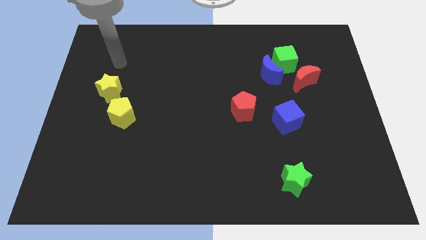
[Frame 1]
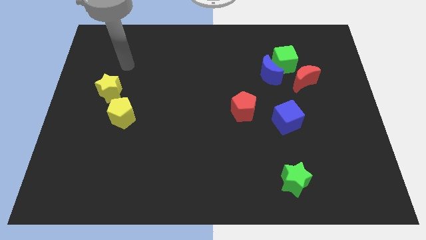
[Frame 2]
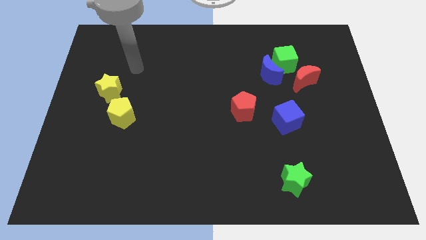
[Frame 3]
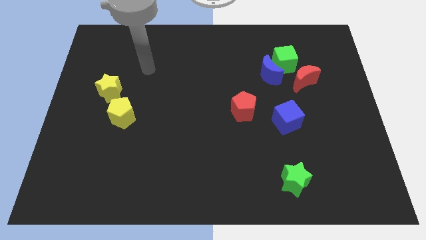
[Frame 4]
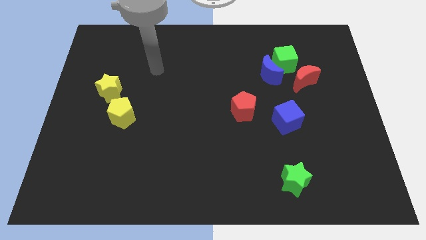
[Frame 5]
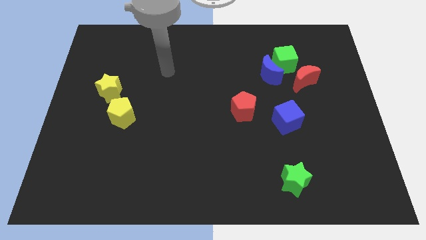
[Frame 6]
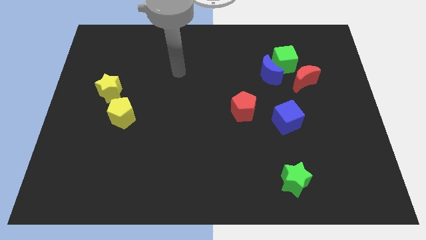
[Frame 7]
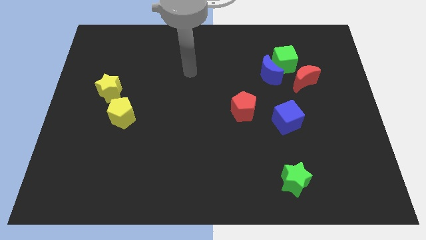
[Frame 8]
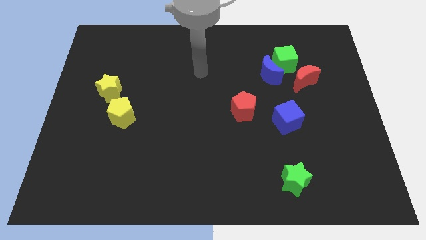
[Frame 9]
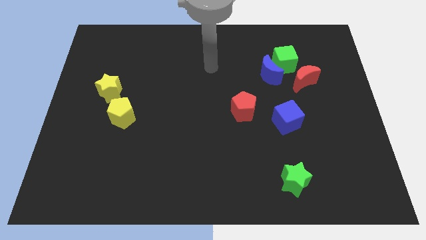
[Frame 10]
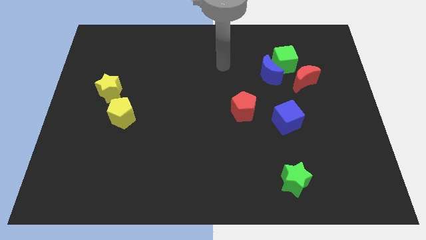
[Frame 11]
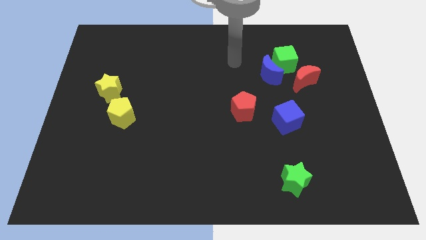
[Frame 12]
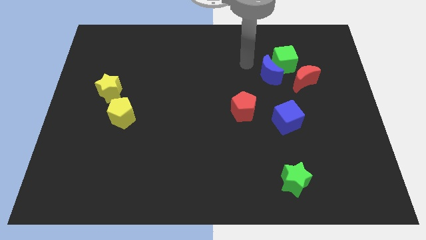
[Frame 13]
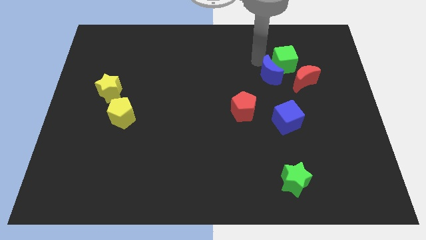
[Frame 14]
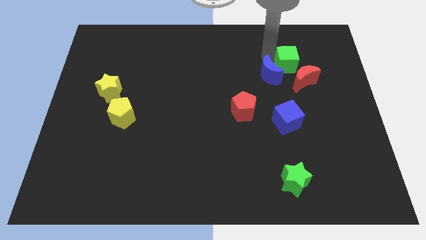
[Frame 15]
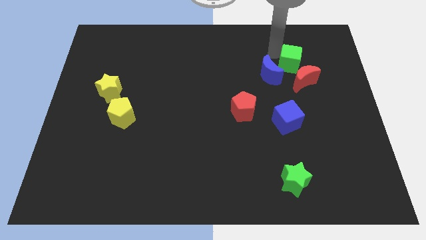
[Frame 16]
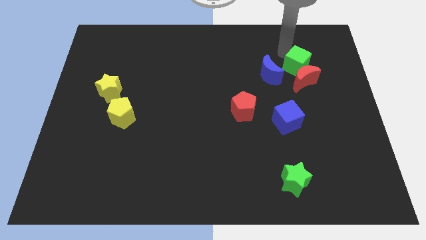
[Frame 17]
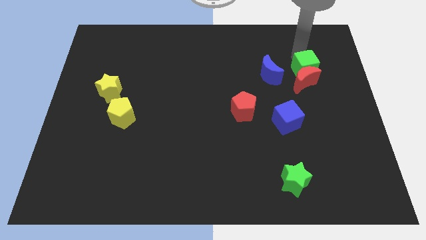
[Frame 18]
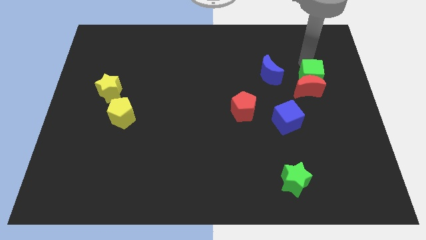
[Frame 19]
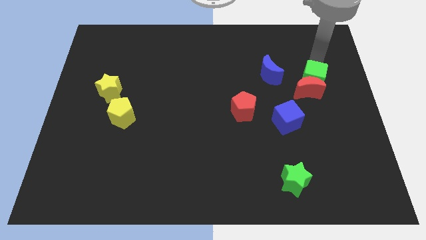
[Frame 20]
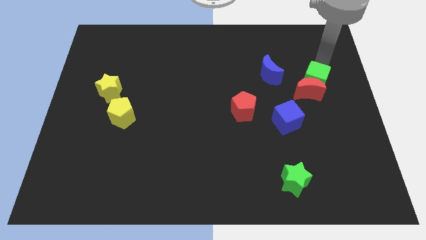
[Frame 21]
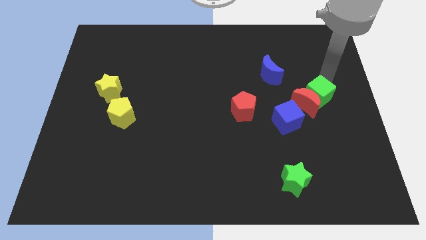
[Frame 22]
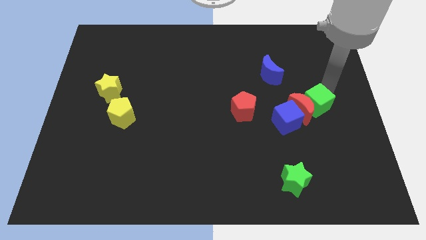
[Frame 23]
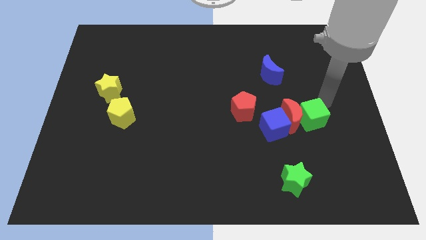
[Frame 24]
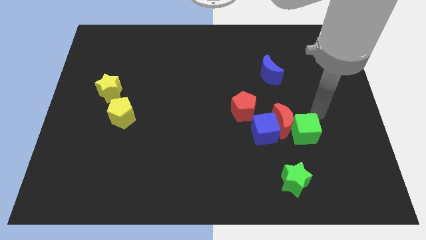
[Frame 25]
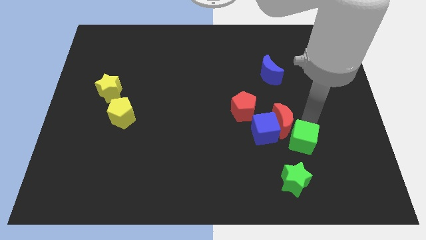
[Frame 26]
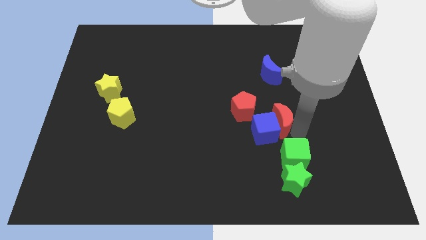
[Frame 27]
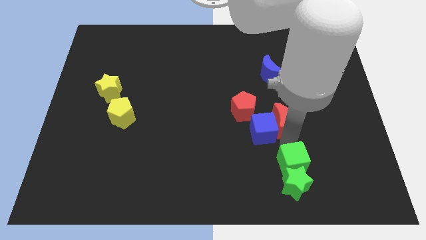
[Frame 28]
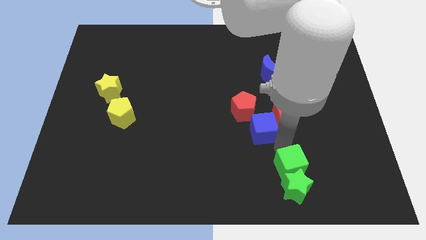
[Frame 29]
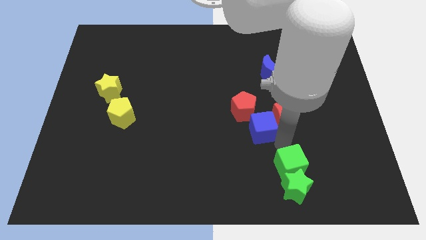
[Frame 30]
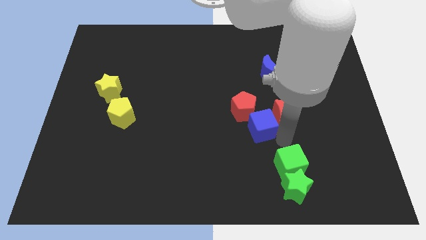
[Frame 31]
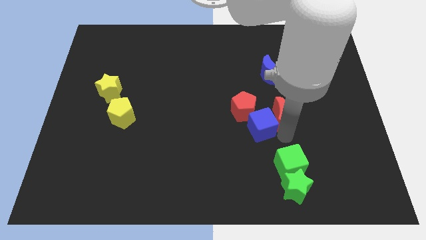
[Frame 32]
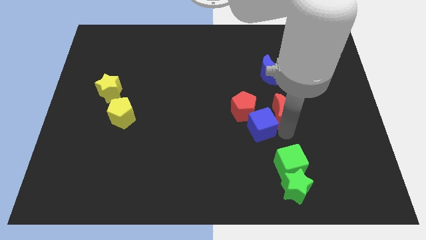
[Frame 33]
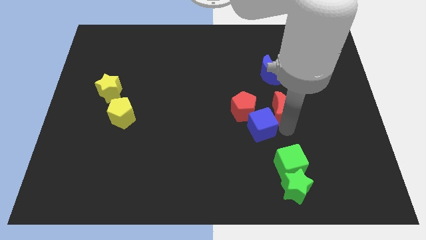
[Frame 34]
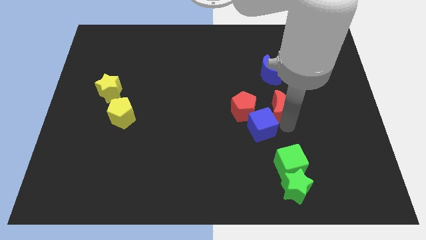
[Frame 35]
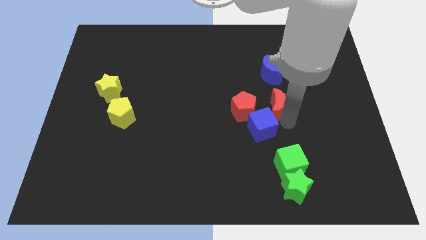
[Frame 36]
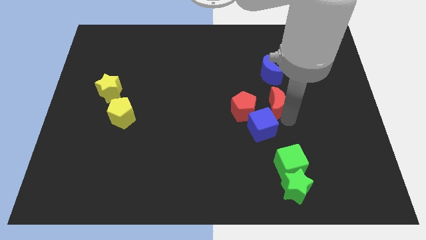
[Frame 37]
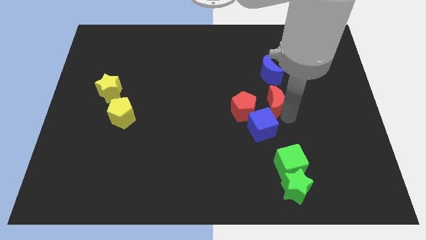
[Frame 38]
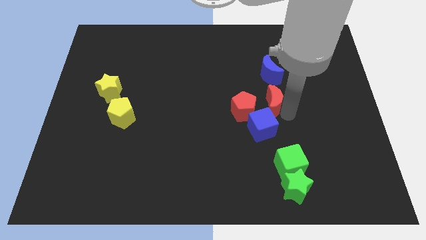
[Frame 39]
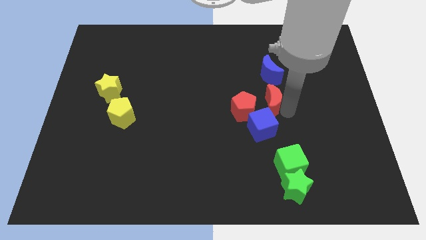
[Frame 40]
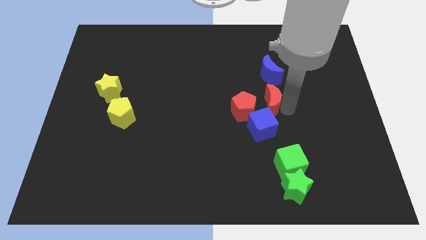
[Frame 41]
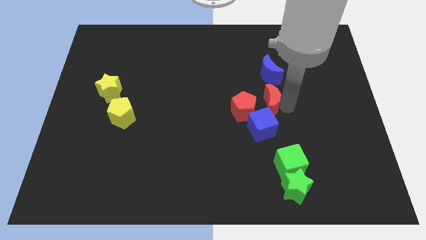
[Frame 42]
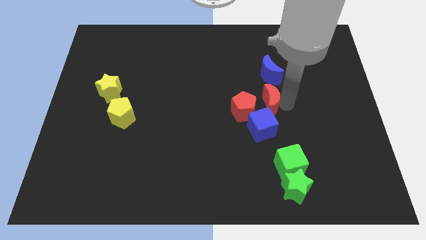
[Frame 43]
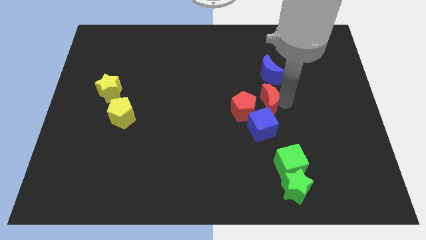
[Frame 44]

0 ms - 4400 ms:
slide the red moon to the left a little

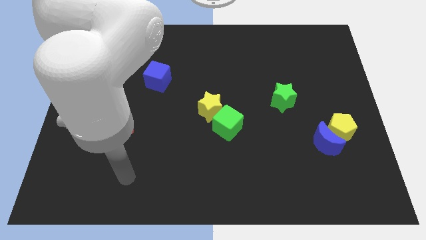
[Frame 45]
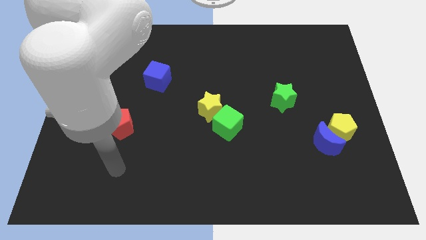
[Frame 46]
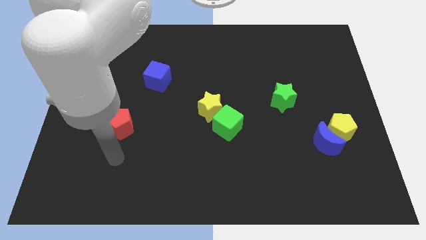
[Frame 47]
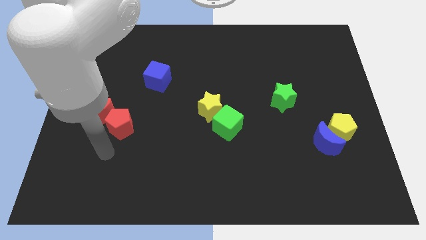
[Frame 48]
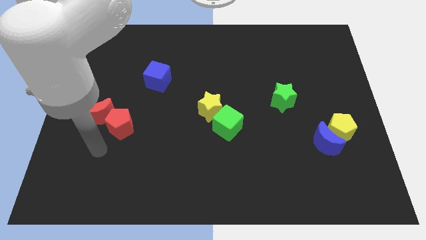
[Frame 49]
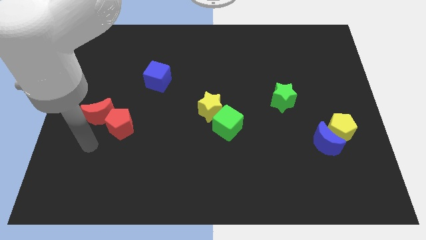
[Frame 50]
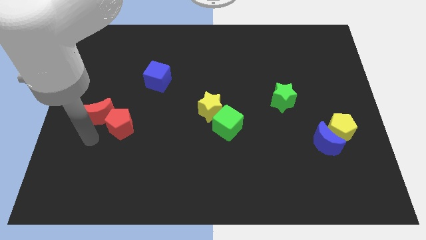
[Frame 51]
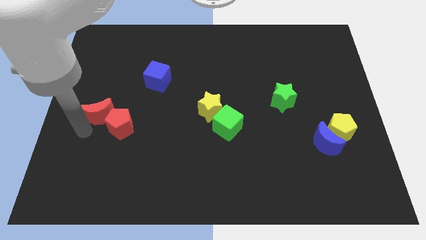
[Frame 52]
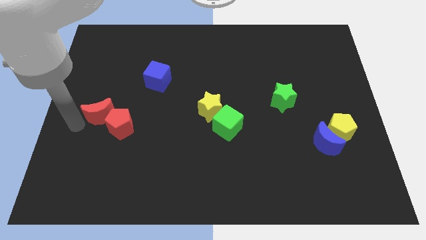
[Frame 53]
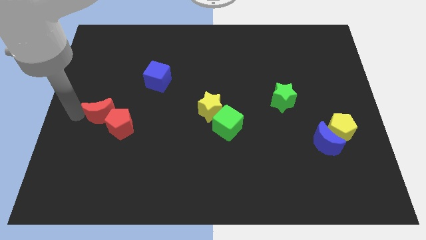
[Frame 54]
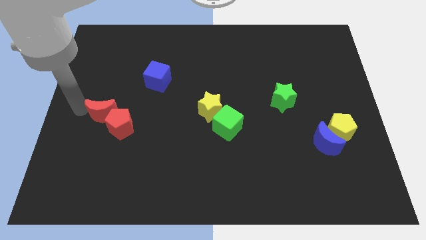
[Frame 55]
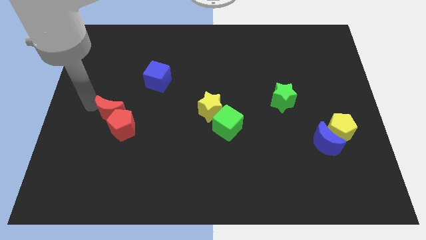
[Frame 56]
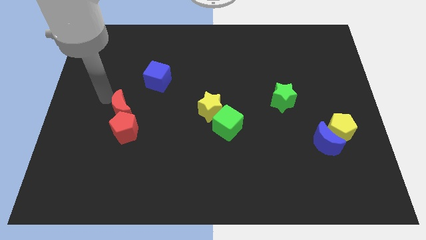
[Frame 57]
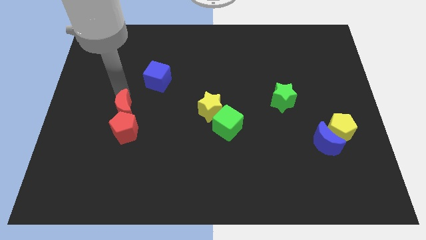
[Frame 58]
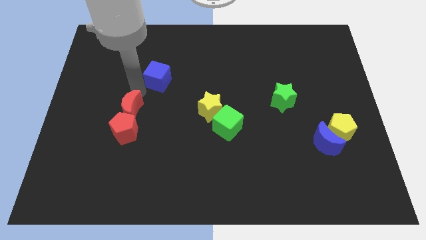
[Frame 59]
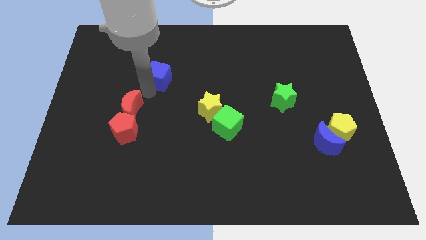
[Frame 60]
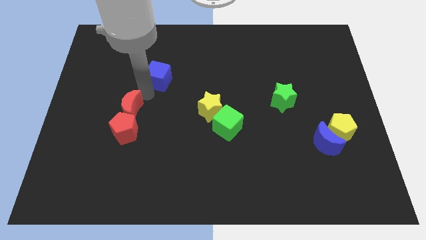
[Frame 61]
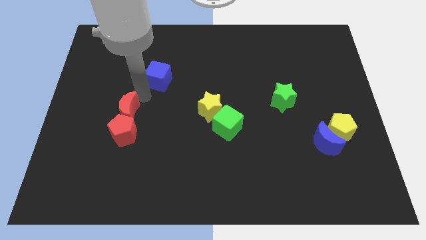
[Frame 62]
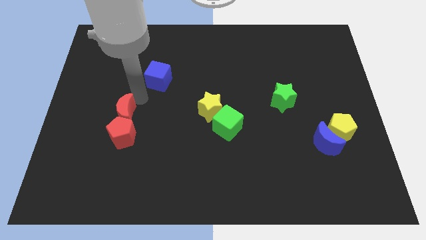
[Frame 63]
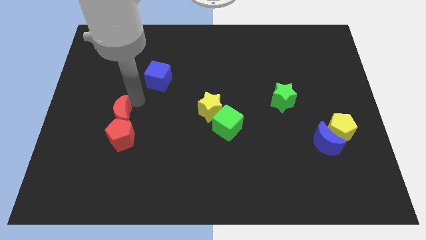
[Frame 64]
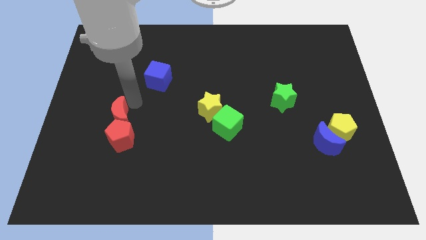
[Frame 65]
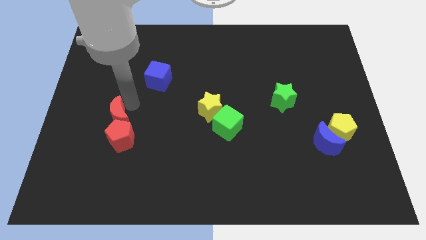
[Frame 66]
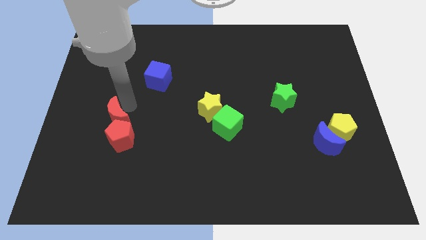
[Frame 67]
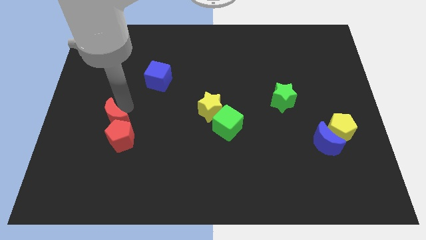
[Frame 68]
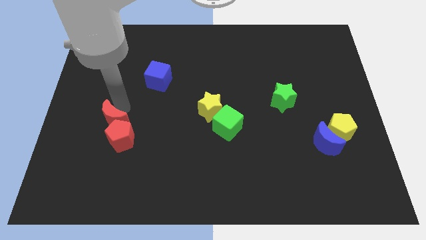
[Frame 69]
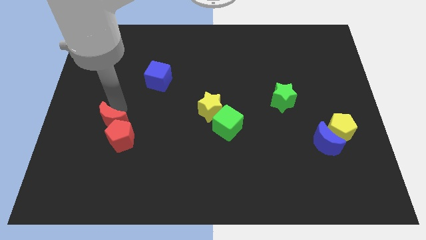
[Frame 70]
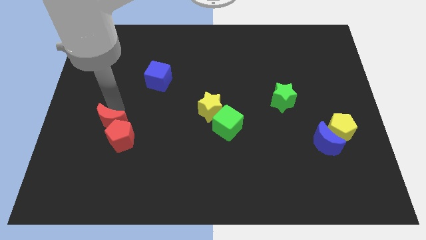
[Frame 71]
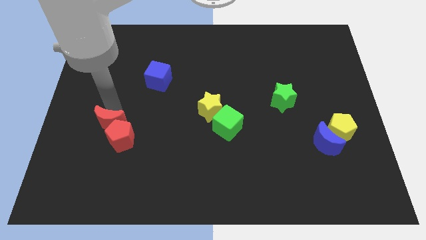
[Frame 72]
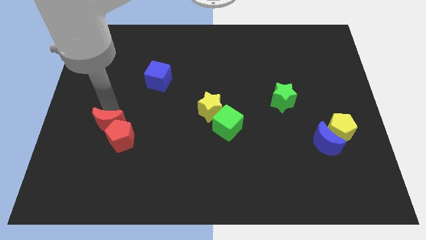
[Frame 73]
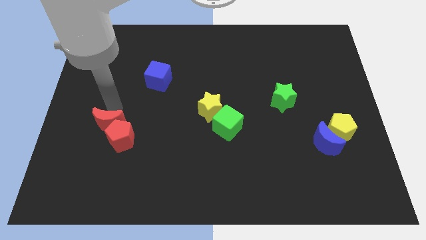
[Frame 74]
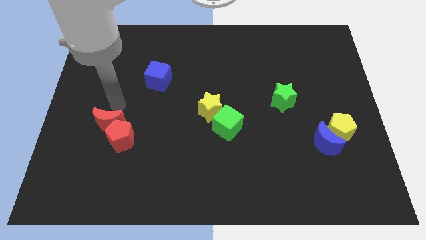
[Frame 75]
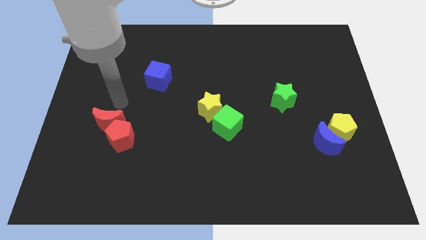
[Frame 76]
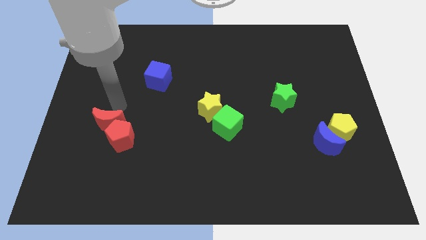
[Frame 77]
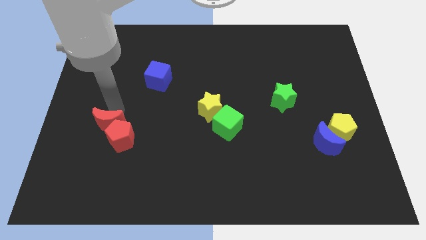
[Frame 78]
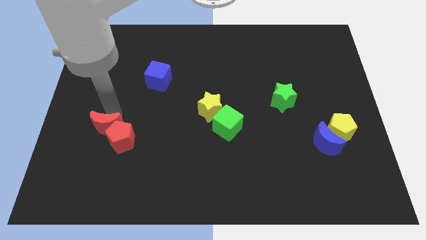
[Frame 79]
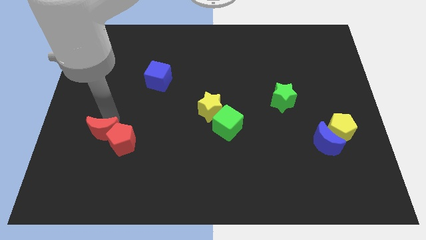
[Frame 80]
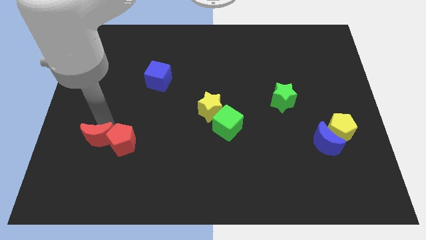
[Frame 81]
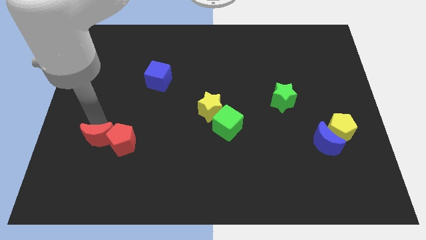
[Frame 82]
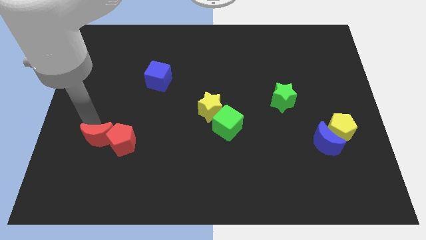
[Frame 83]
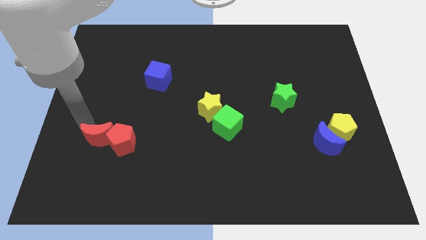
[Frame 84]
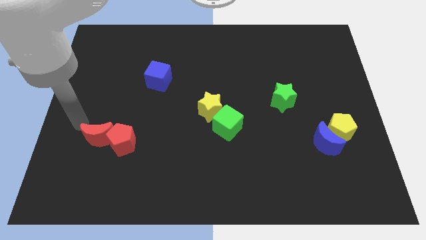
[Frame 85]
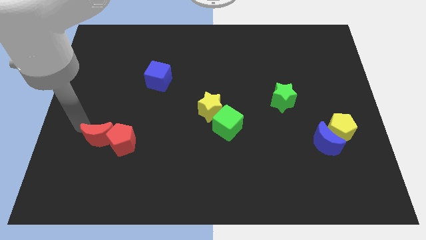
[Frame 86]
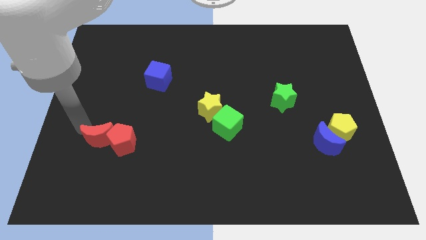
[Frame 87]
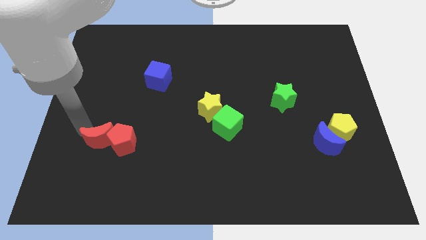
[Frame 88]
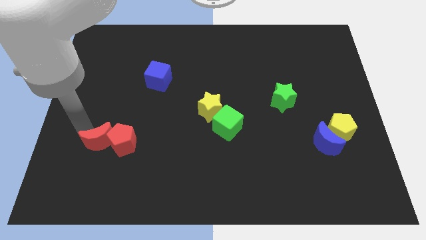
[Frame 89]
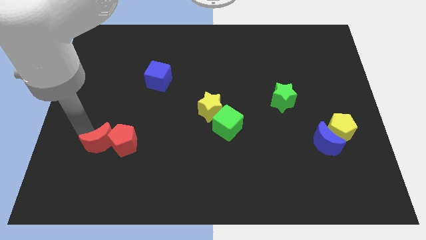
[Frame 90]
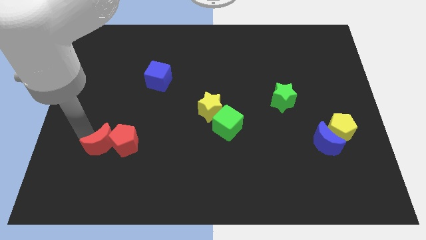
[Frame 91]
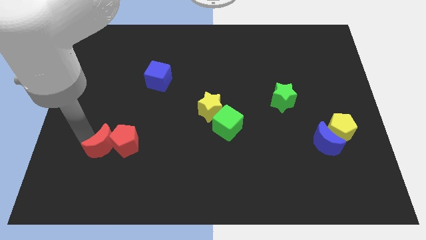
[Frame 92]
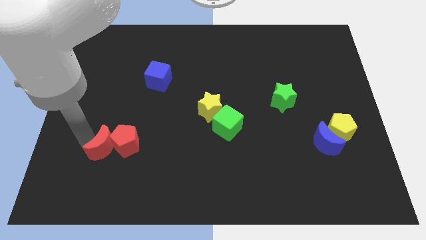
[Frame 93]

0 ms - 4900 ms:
slide the red moon slightly downwards and to the right diagonally
